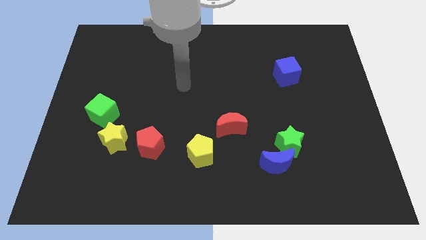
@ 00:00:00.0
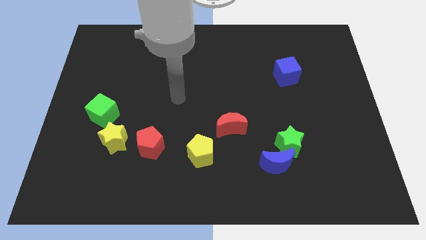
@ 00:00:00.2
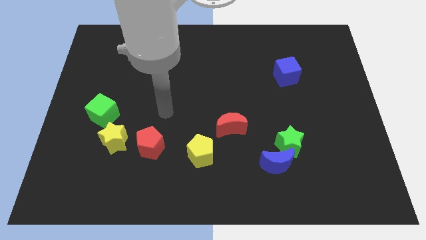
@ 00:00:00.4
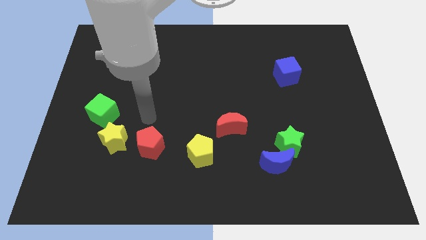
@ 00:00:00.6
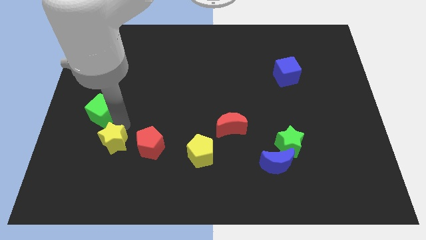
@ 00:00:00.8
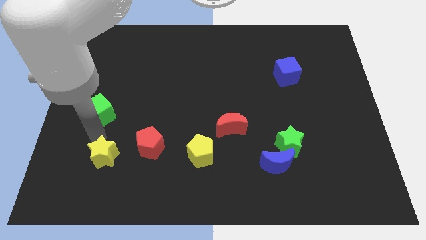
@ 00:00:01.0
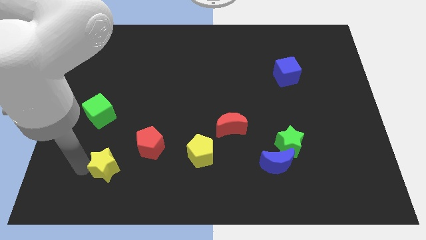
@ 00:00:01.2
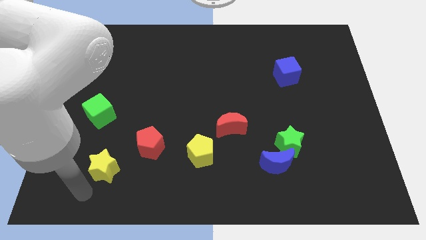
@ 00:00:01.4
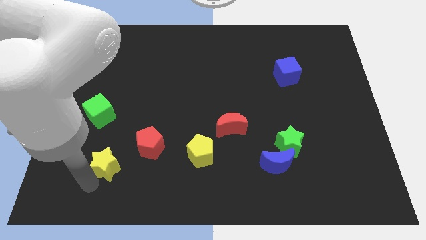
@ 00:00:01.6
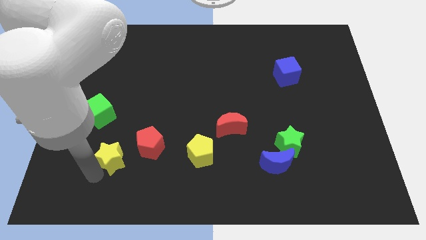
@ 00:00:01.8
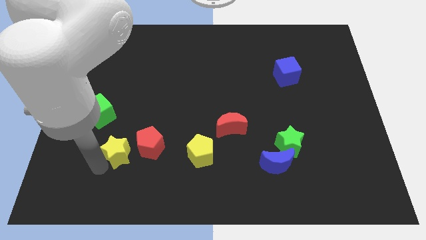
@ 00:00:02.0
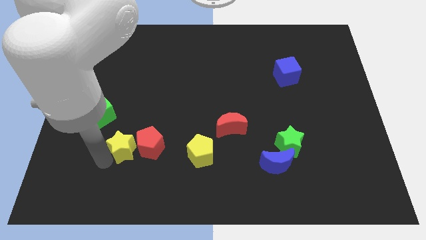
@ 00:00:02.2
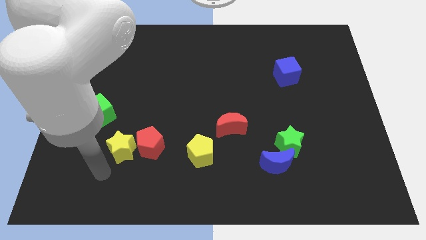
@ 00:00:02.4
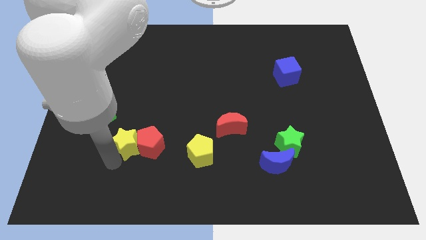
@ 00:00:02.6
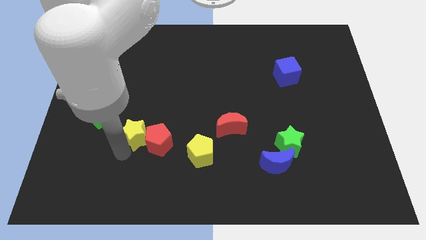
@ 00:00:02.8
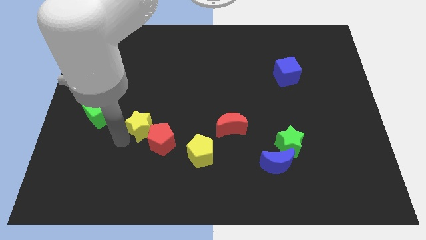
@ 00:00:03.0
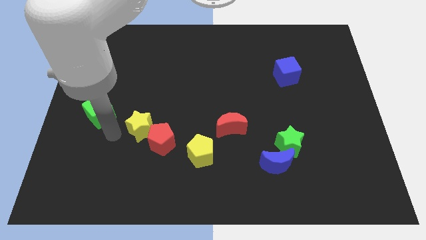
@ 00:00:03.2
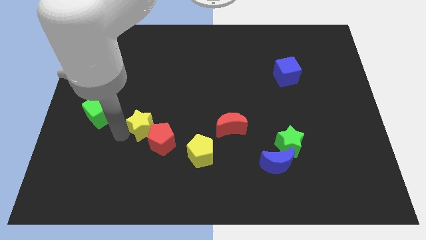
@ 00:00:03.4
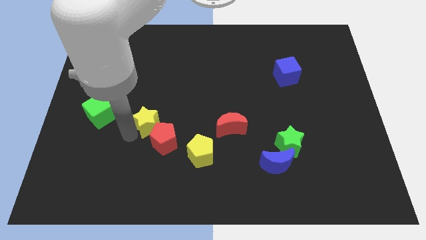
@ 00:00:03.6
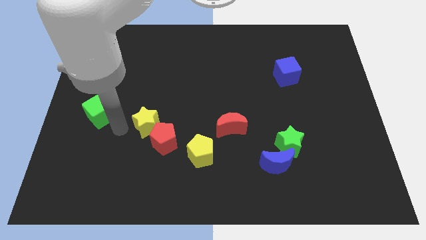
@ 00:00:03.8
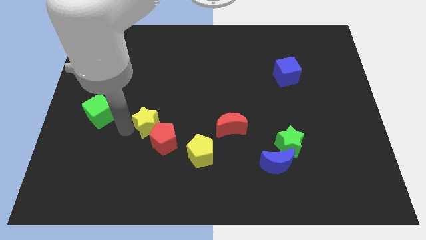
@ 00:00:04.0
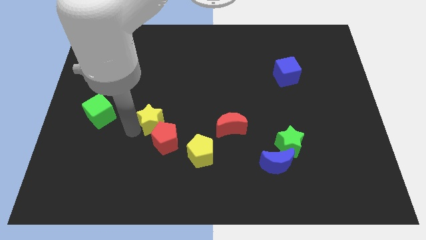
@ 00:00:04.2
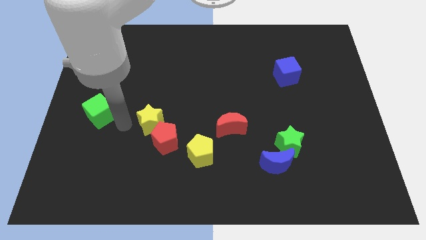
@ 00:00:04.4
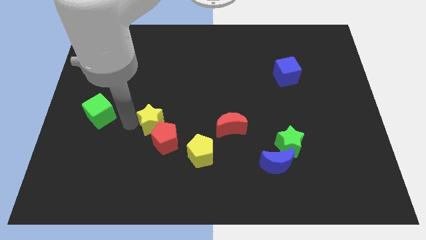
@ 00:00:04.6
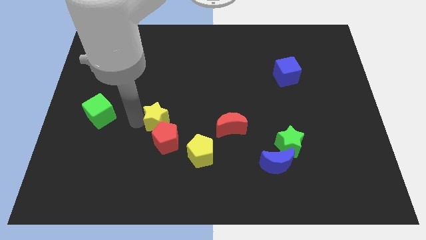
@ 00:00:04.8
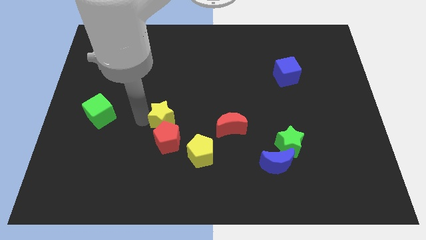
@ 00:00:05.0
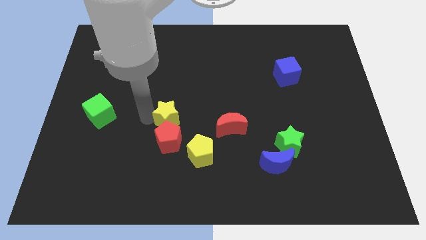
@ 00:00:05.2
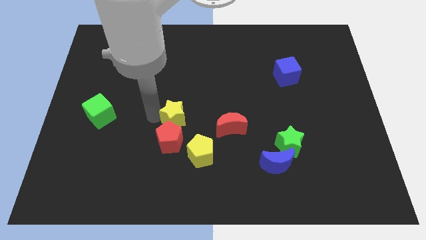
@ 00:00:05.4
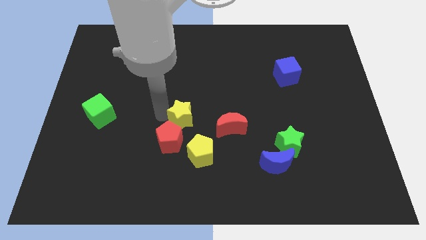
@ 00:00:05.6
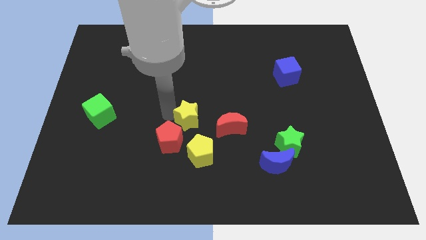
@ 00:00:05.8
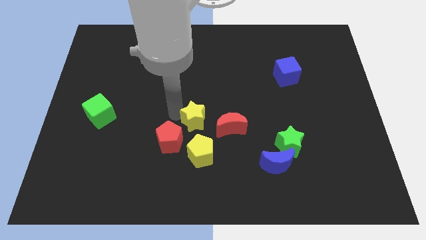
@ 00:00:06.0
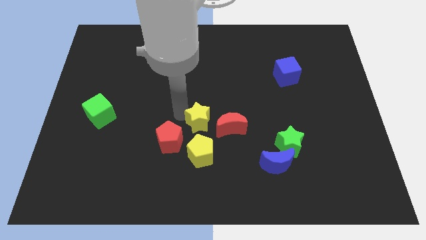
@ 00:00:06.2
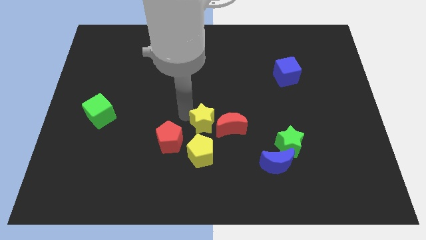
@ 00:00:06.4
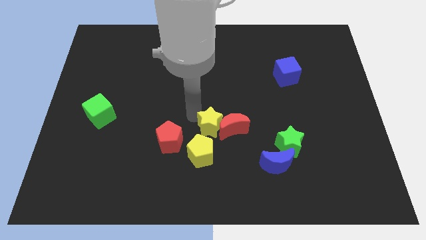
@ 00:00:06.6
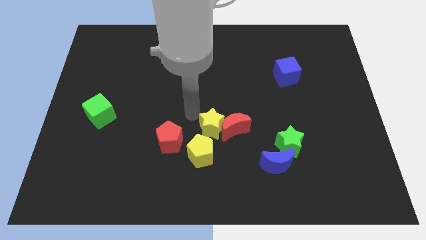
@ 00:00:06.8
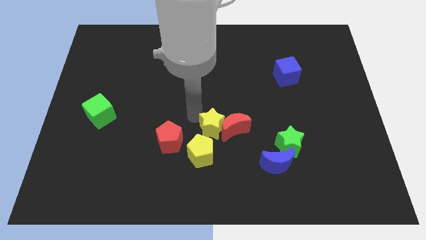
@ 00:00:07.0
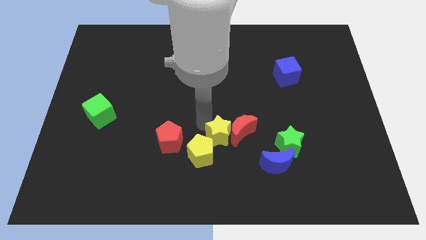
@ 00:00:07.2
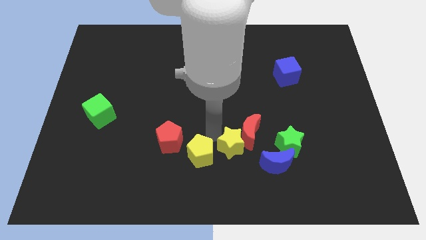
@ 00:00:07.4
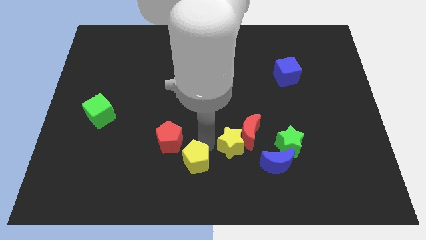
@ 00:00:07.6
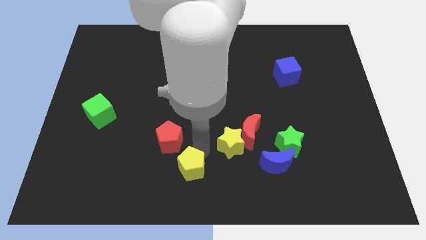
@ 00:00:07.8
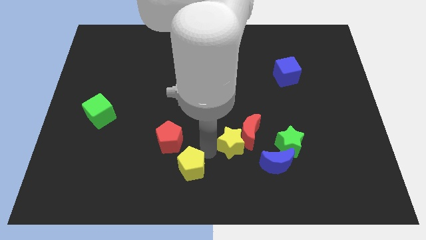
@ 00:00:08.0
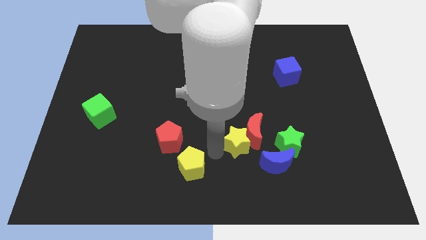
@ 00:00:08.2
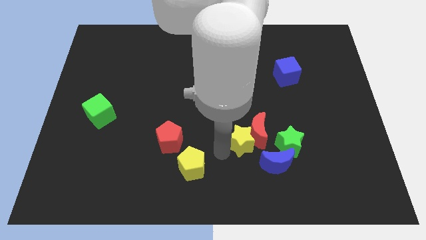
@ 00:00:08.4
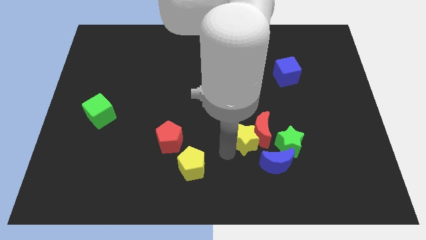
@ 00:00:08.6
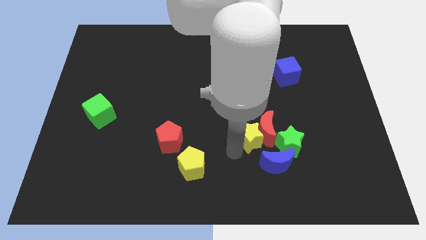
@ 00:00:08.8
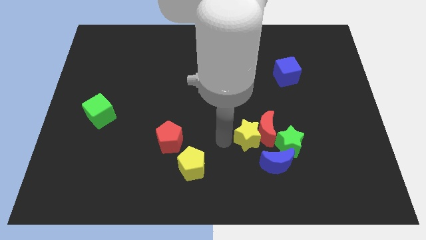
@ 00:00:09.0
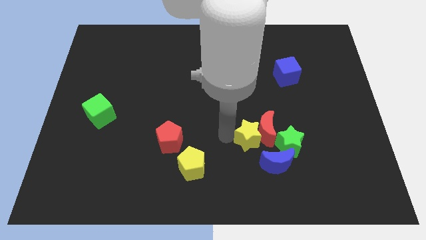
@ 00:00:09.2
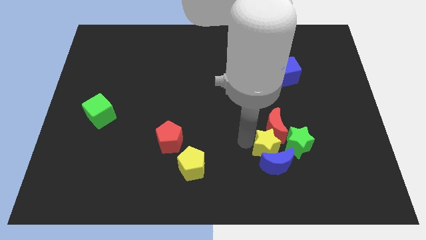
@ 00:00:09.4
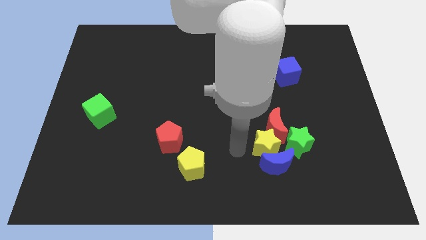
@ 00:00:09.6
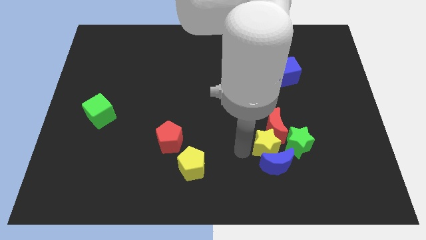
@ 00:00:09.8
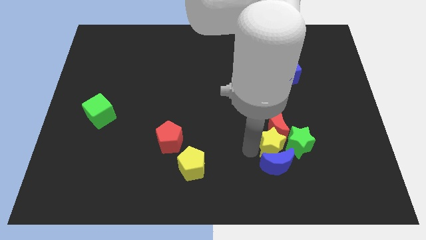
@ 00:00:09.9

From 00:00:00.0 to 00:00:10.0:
slide the yellow star next to the green star

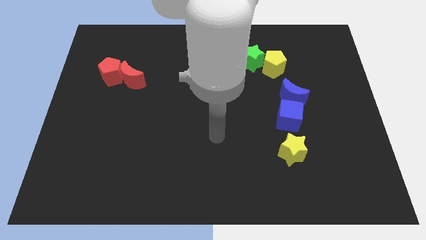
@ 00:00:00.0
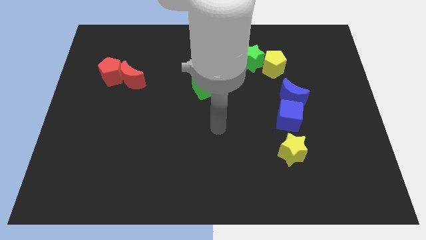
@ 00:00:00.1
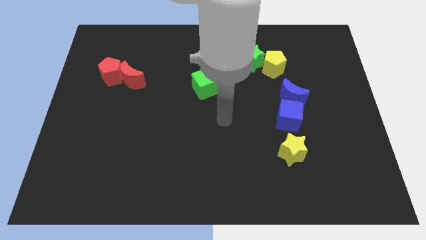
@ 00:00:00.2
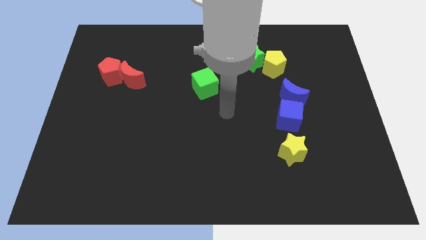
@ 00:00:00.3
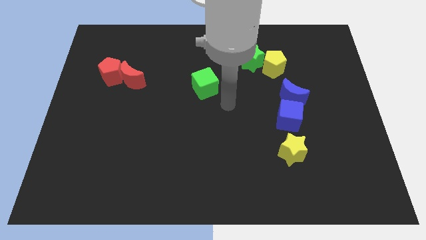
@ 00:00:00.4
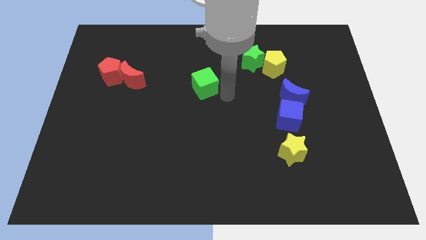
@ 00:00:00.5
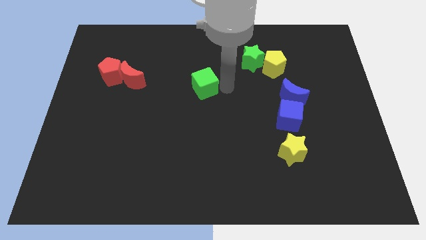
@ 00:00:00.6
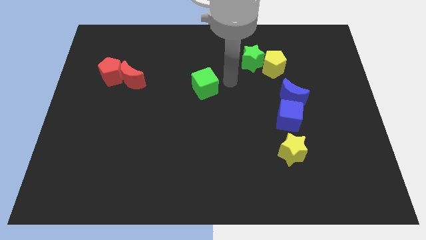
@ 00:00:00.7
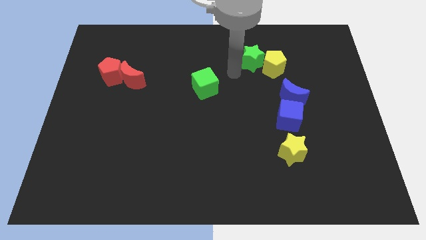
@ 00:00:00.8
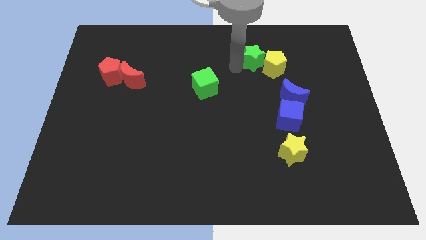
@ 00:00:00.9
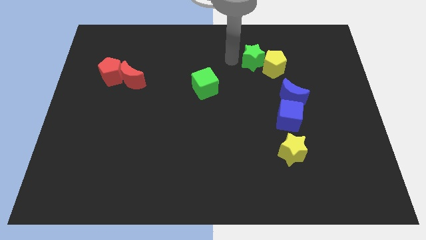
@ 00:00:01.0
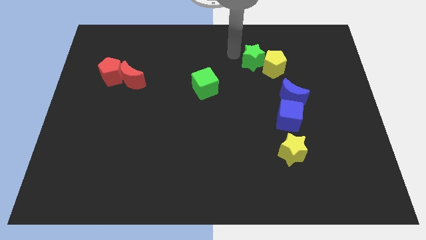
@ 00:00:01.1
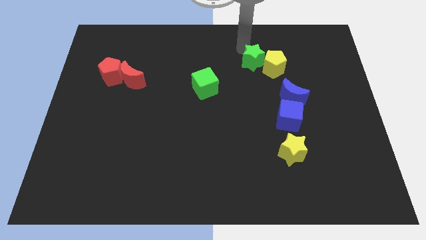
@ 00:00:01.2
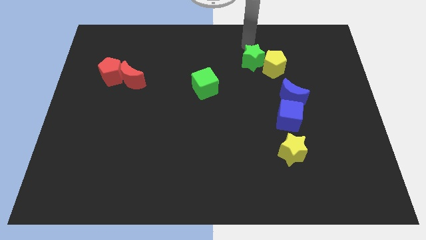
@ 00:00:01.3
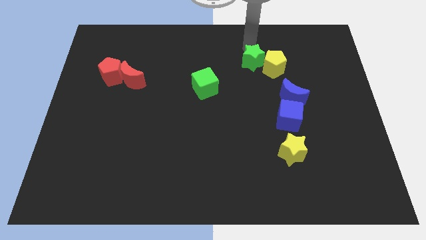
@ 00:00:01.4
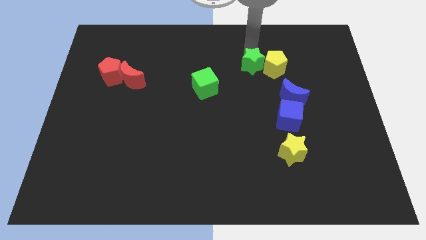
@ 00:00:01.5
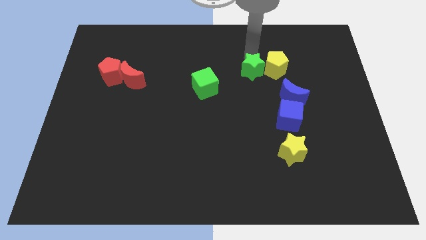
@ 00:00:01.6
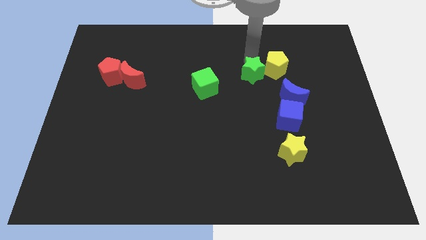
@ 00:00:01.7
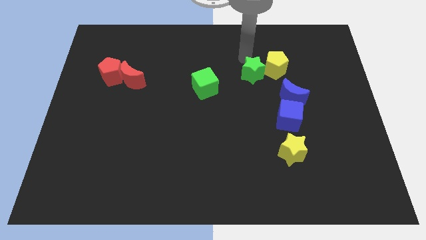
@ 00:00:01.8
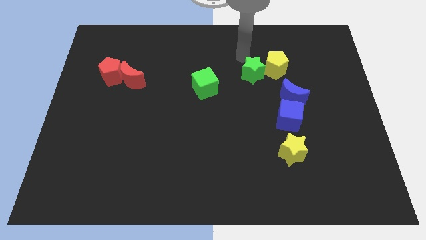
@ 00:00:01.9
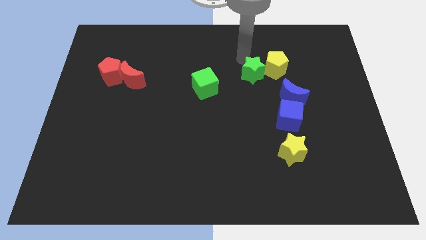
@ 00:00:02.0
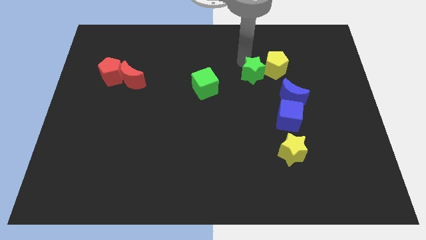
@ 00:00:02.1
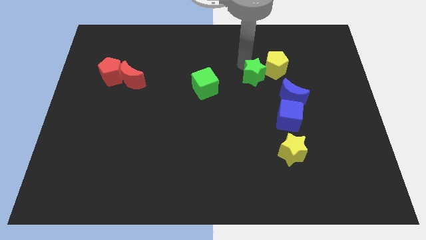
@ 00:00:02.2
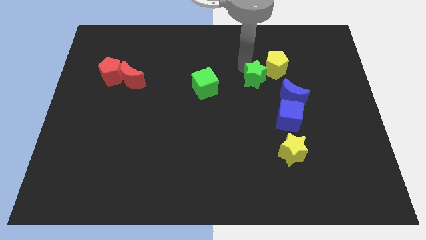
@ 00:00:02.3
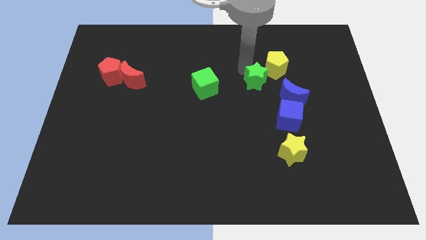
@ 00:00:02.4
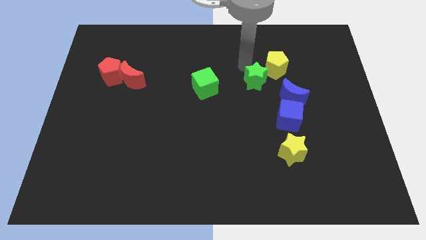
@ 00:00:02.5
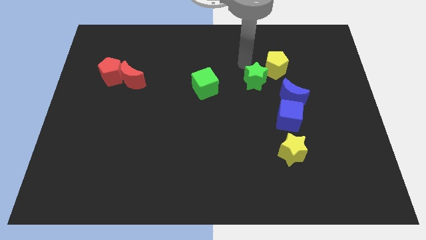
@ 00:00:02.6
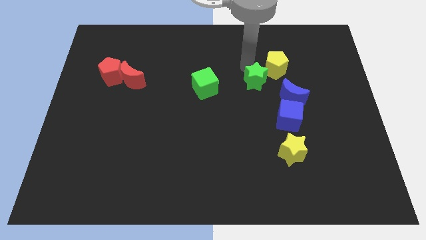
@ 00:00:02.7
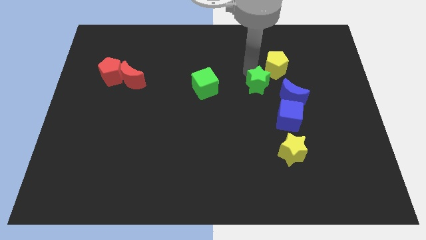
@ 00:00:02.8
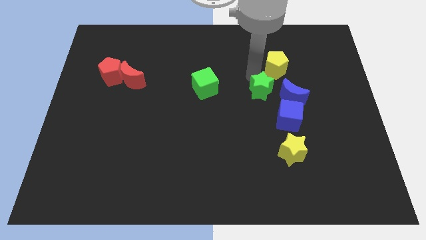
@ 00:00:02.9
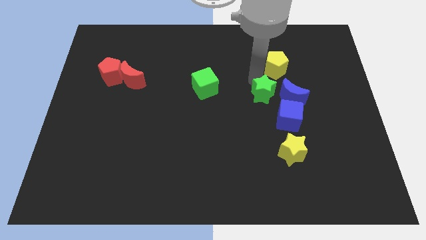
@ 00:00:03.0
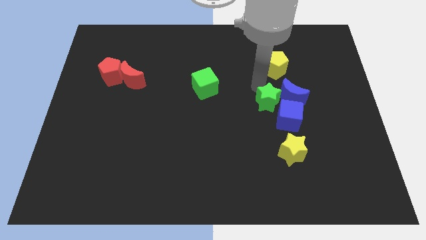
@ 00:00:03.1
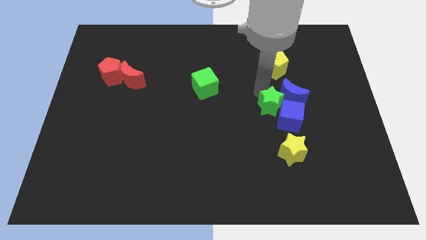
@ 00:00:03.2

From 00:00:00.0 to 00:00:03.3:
slide the green star next to the blue cube
